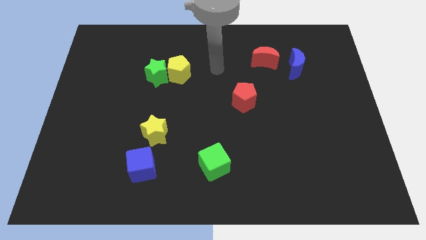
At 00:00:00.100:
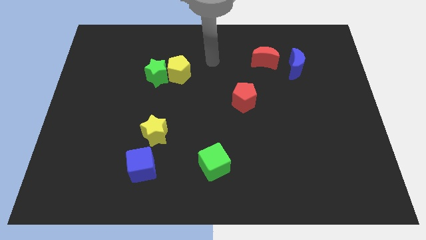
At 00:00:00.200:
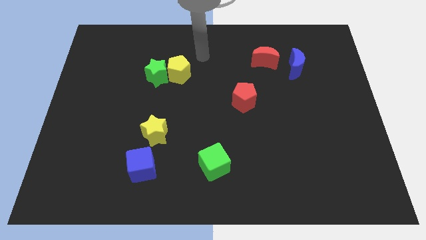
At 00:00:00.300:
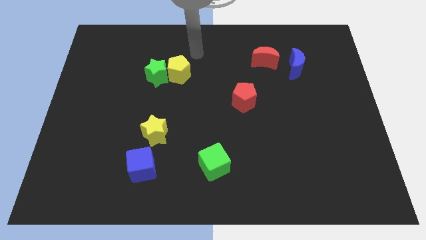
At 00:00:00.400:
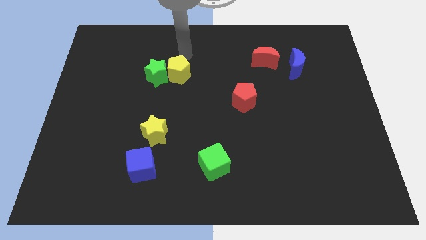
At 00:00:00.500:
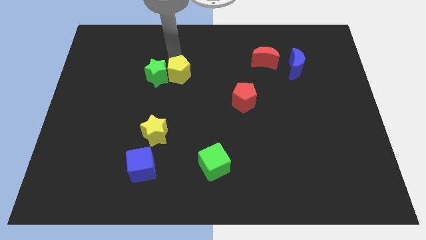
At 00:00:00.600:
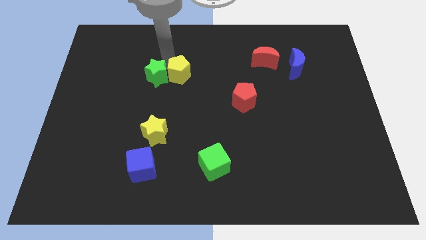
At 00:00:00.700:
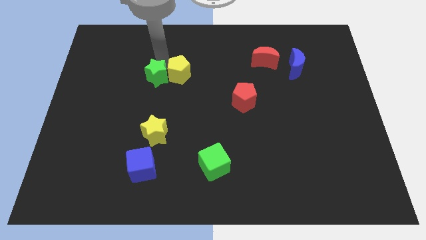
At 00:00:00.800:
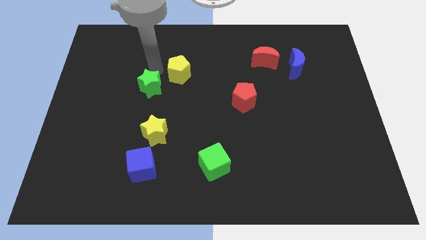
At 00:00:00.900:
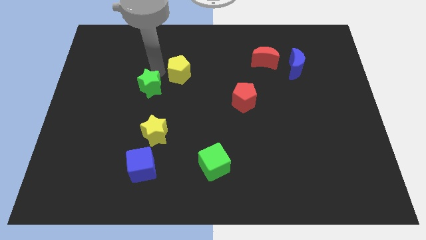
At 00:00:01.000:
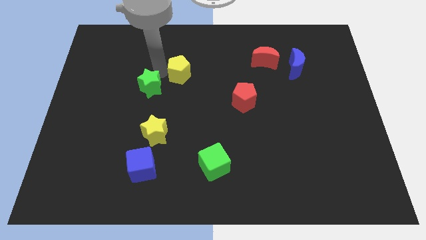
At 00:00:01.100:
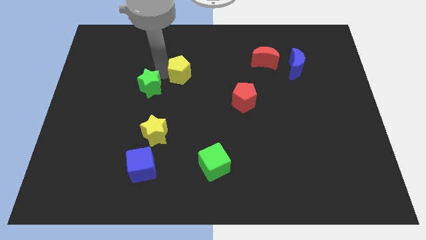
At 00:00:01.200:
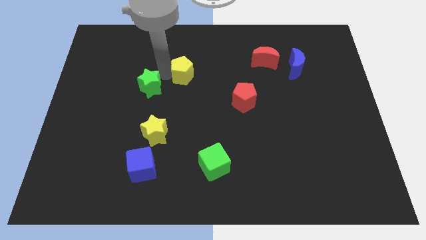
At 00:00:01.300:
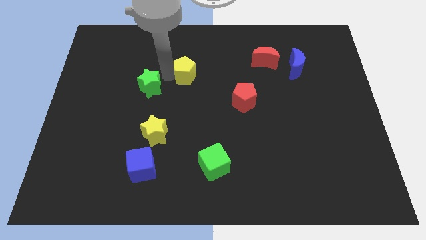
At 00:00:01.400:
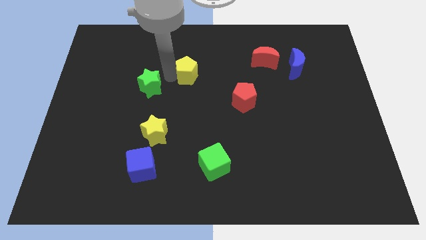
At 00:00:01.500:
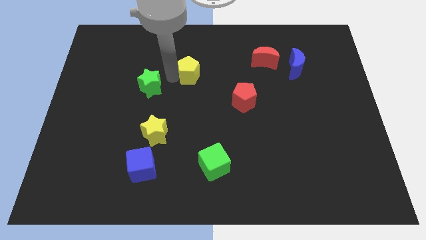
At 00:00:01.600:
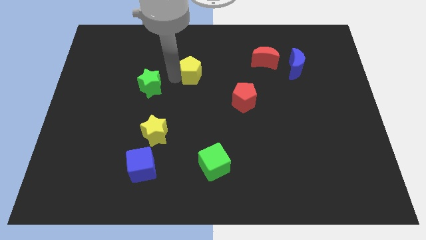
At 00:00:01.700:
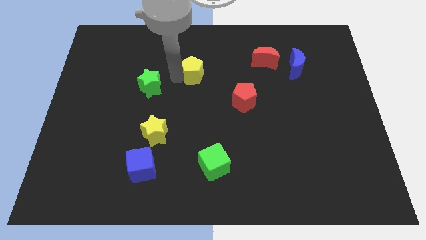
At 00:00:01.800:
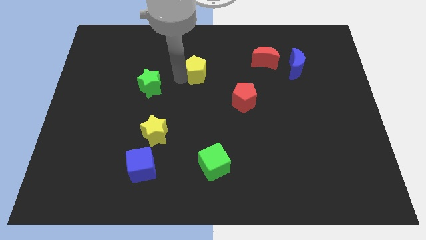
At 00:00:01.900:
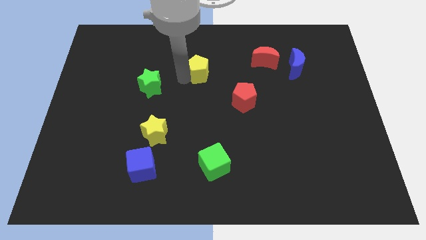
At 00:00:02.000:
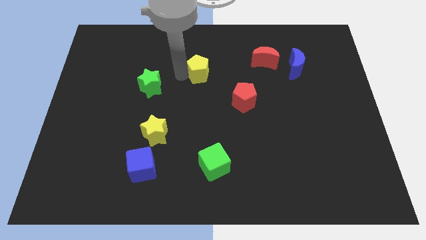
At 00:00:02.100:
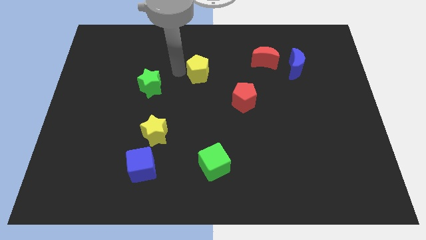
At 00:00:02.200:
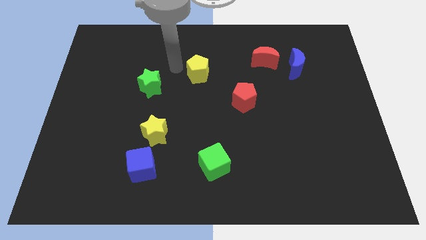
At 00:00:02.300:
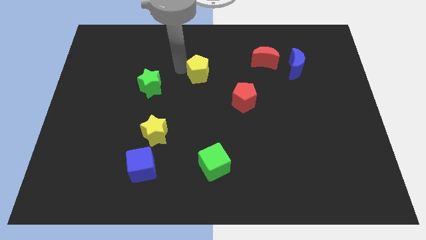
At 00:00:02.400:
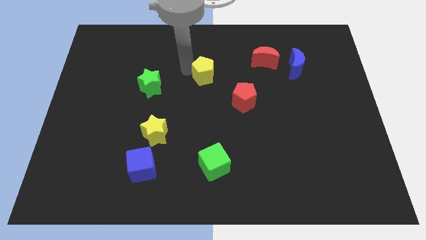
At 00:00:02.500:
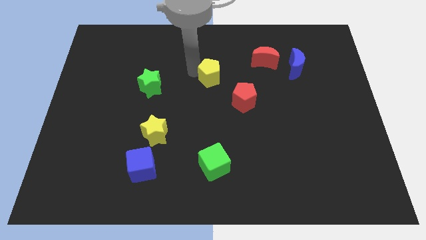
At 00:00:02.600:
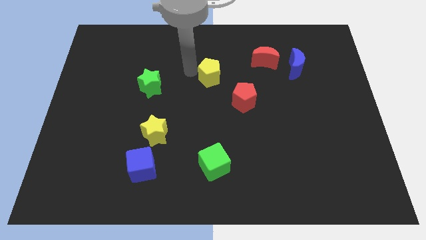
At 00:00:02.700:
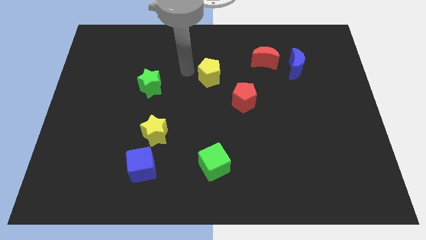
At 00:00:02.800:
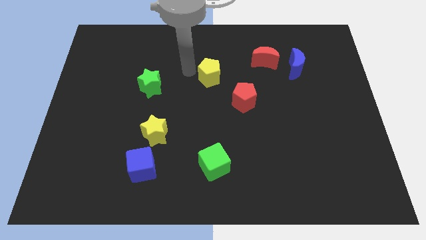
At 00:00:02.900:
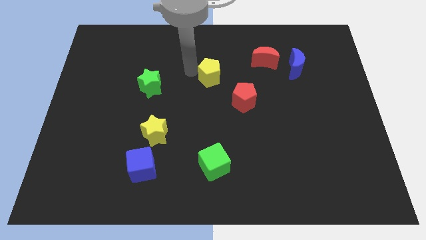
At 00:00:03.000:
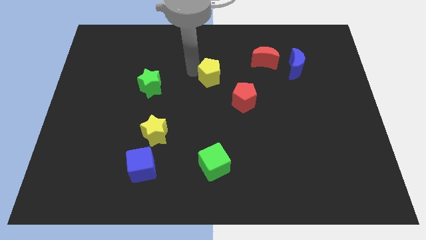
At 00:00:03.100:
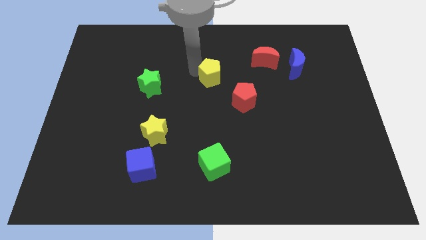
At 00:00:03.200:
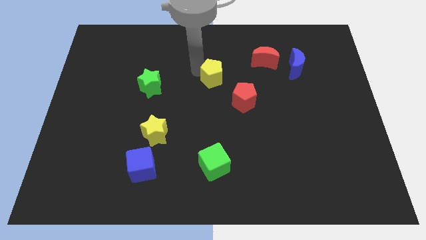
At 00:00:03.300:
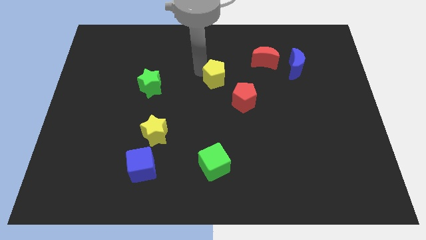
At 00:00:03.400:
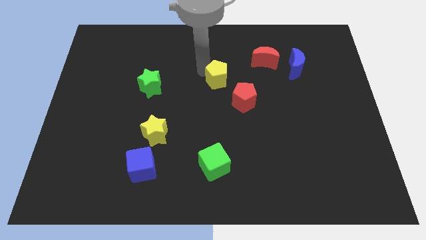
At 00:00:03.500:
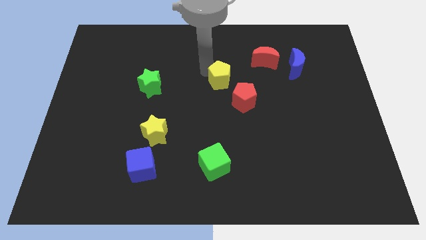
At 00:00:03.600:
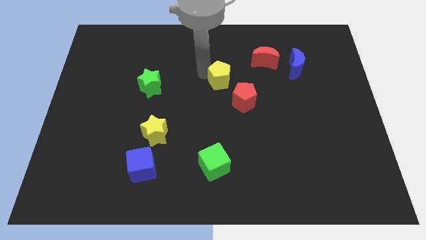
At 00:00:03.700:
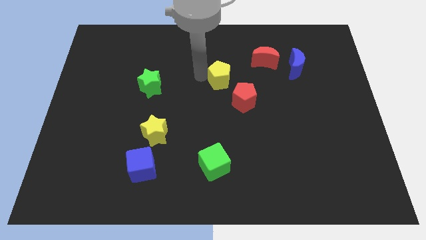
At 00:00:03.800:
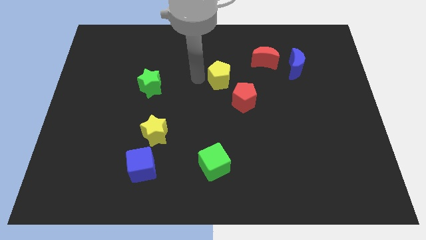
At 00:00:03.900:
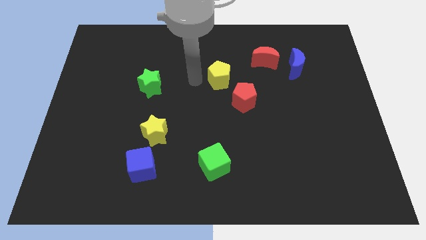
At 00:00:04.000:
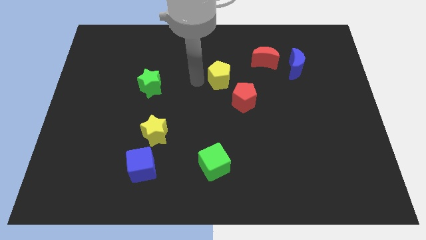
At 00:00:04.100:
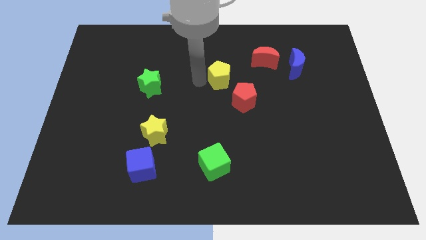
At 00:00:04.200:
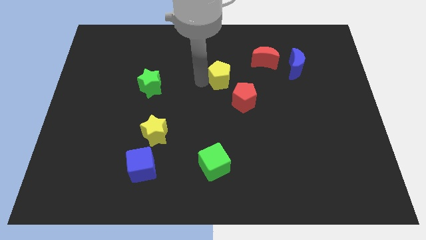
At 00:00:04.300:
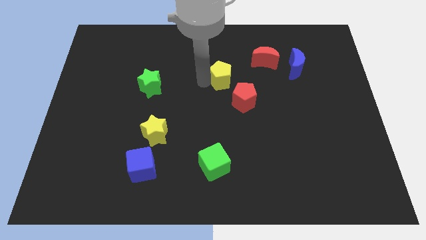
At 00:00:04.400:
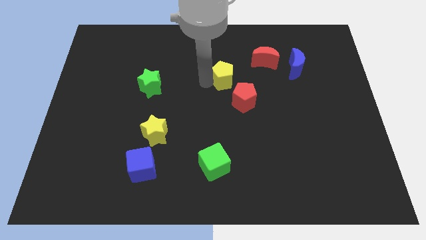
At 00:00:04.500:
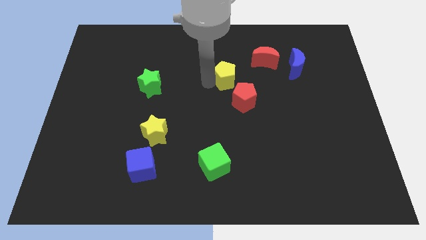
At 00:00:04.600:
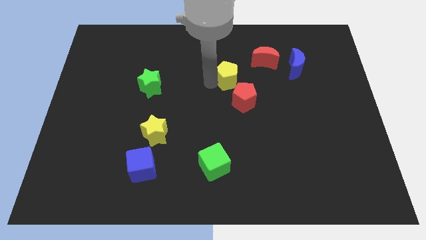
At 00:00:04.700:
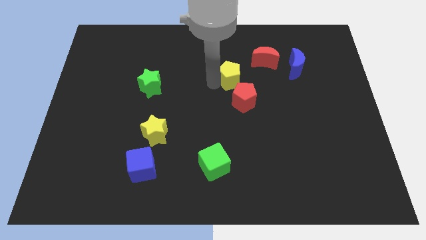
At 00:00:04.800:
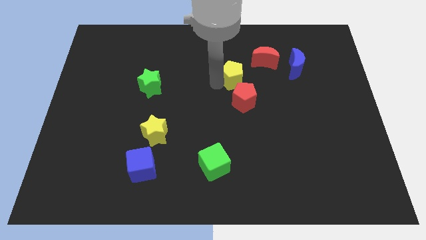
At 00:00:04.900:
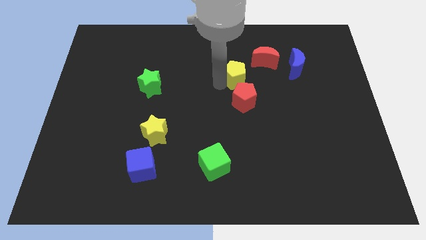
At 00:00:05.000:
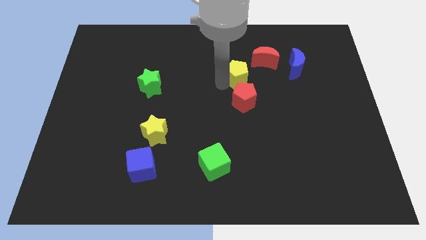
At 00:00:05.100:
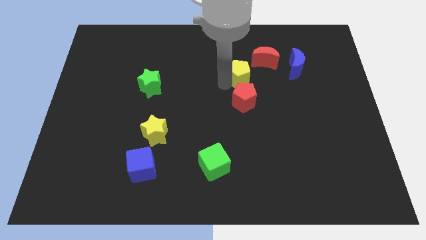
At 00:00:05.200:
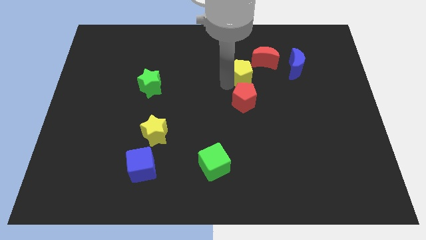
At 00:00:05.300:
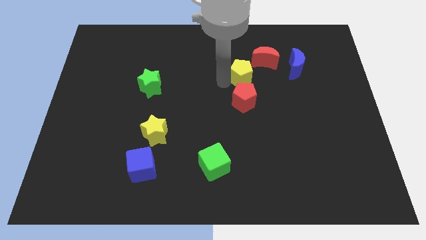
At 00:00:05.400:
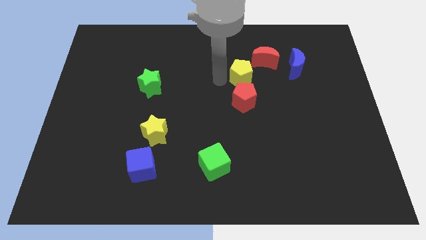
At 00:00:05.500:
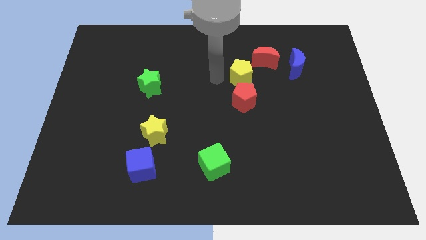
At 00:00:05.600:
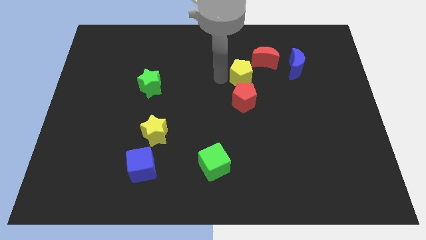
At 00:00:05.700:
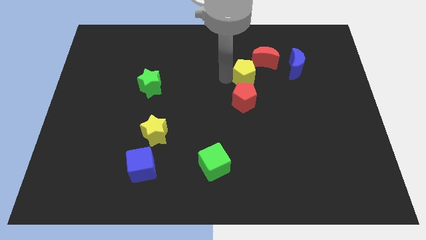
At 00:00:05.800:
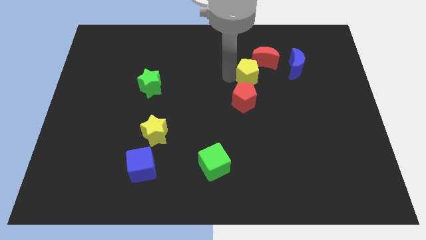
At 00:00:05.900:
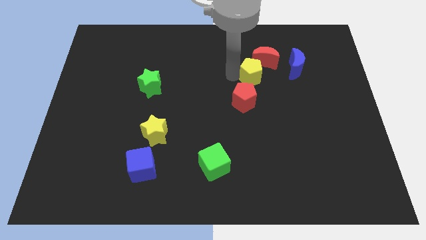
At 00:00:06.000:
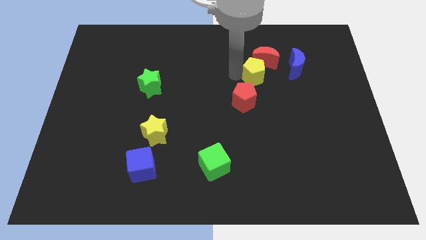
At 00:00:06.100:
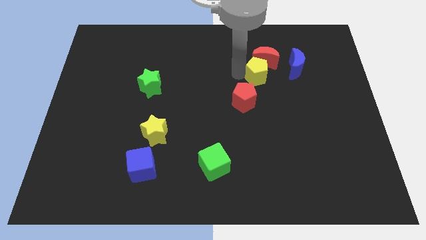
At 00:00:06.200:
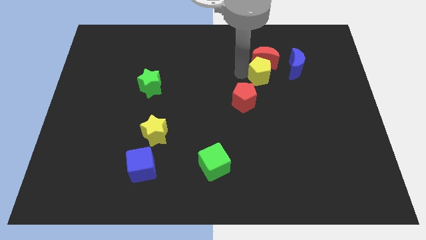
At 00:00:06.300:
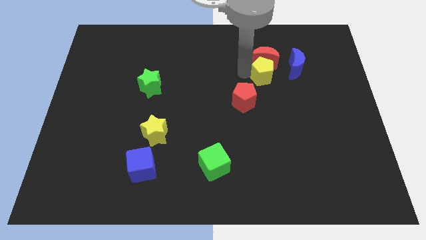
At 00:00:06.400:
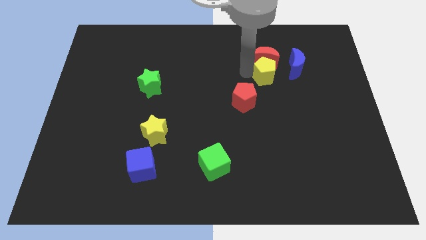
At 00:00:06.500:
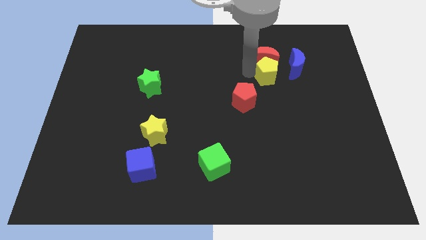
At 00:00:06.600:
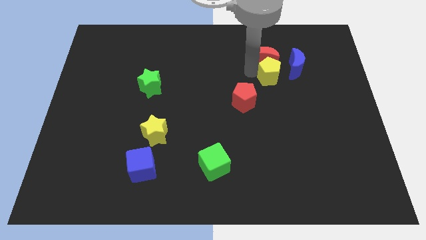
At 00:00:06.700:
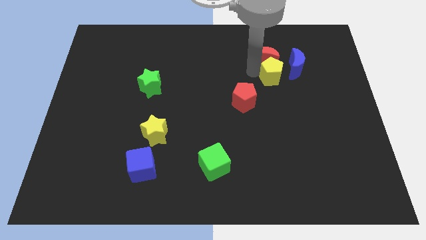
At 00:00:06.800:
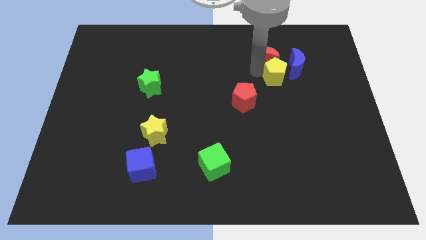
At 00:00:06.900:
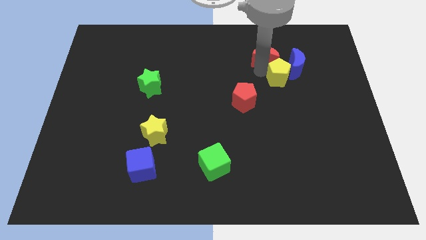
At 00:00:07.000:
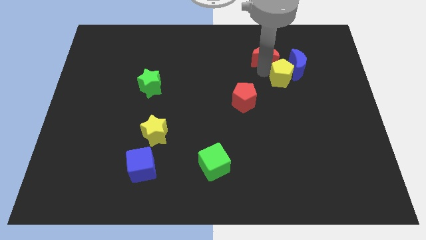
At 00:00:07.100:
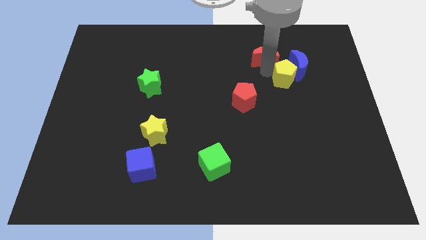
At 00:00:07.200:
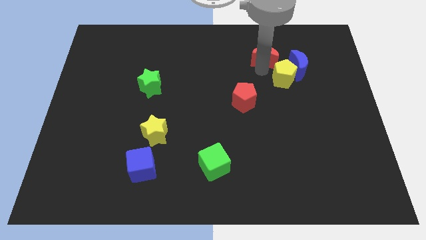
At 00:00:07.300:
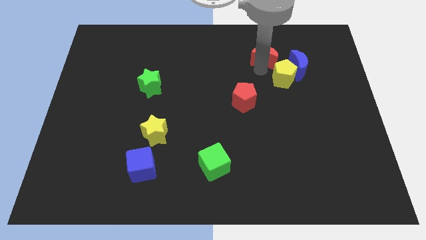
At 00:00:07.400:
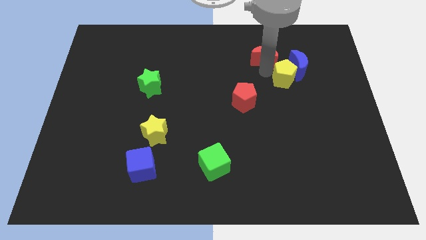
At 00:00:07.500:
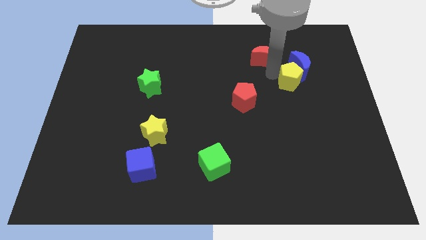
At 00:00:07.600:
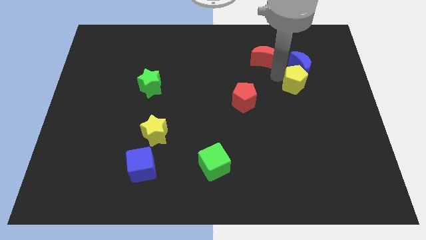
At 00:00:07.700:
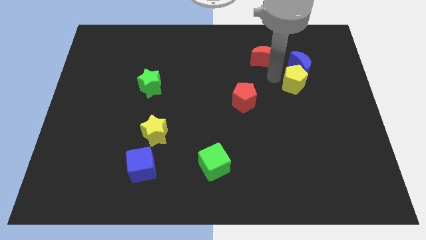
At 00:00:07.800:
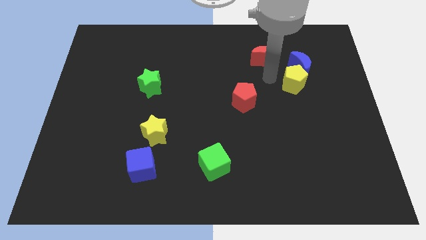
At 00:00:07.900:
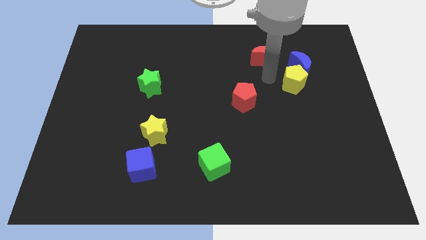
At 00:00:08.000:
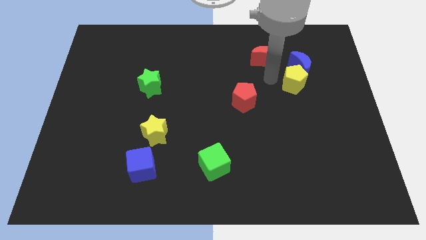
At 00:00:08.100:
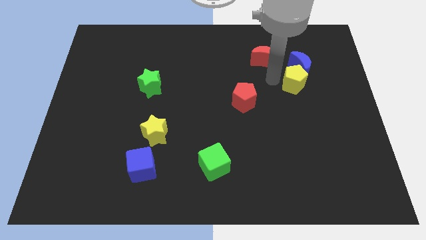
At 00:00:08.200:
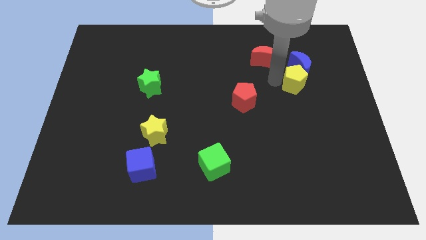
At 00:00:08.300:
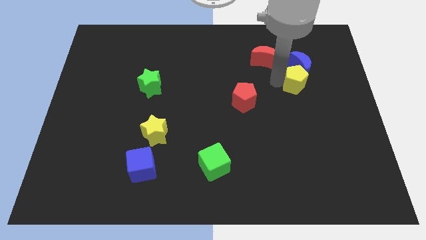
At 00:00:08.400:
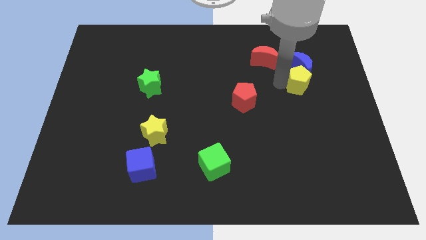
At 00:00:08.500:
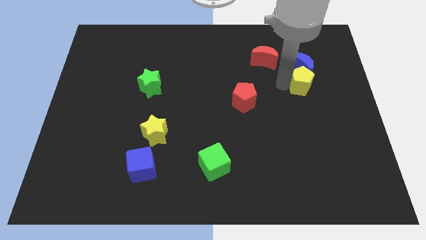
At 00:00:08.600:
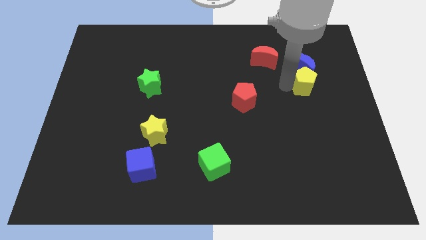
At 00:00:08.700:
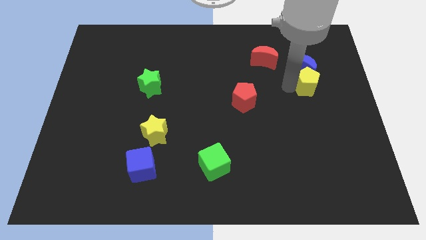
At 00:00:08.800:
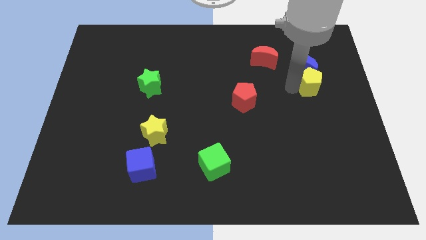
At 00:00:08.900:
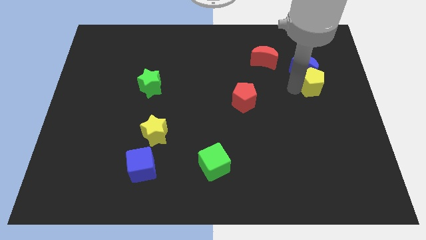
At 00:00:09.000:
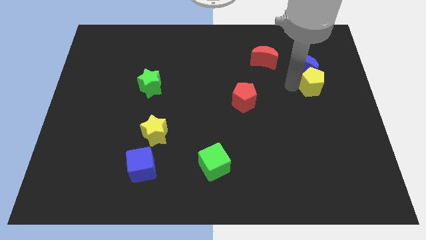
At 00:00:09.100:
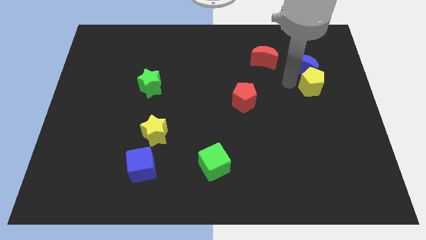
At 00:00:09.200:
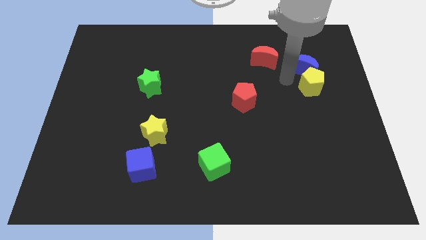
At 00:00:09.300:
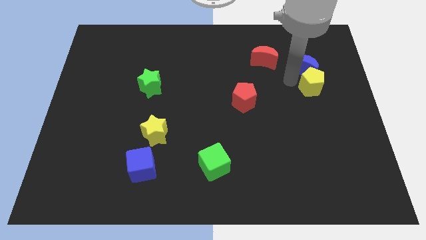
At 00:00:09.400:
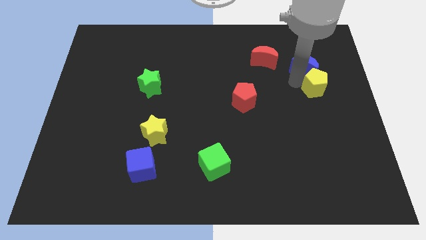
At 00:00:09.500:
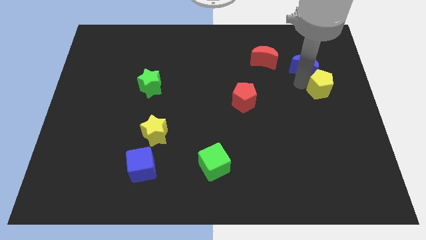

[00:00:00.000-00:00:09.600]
slide the yellow pentagon to the right side of the board
